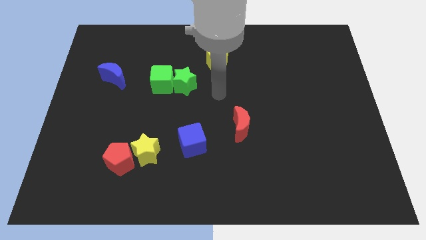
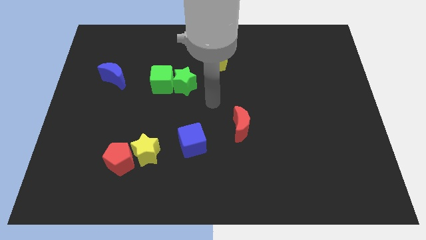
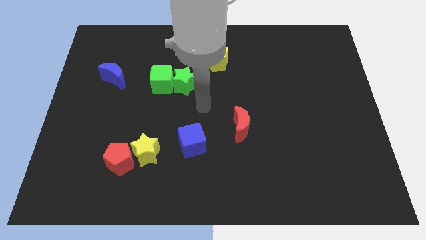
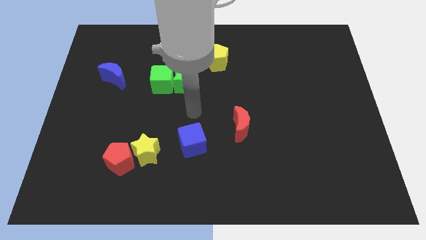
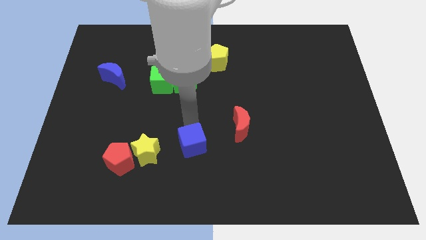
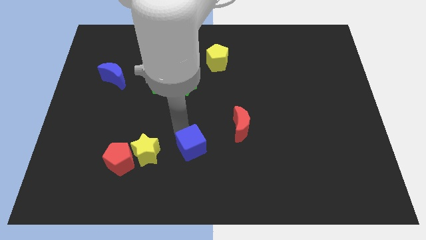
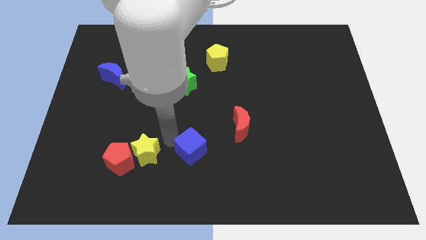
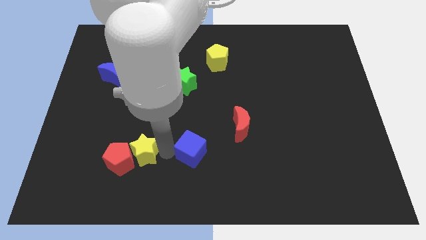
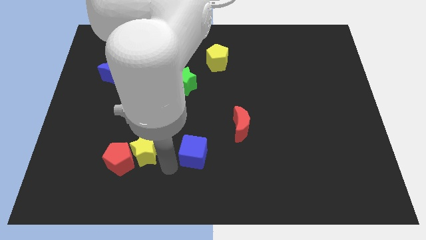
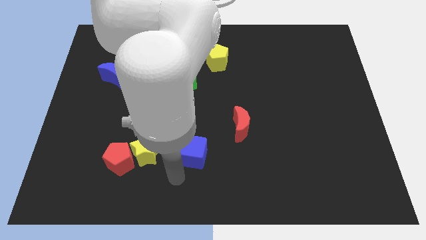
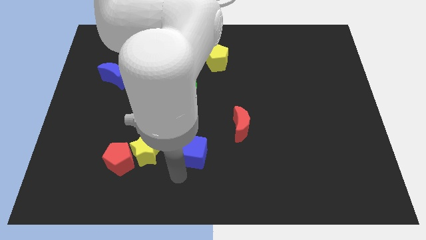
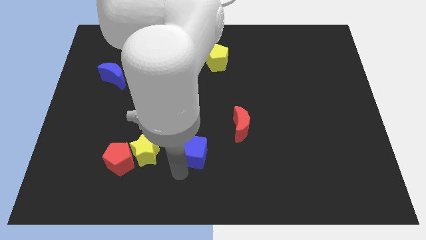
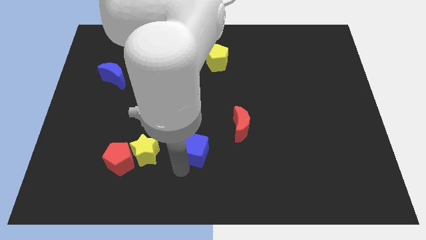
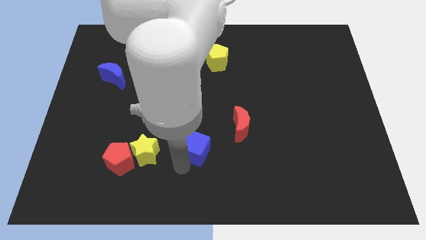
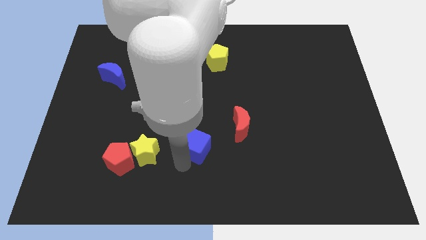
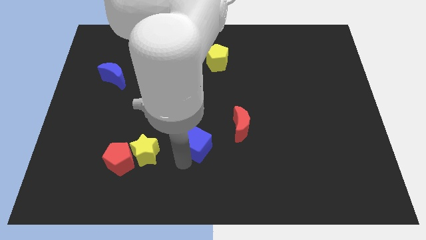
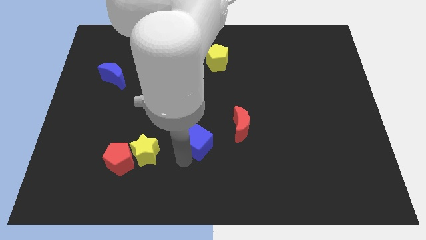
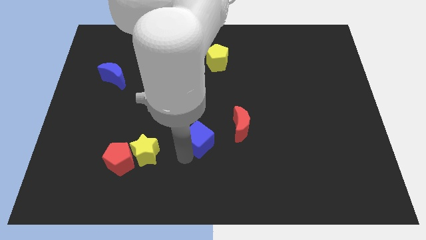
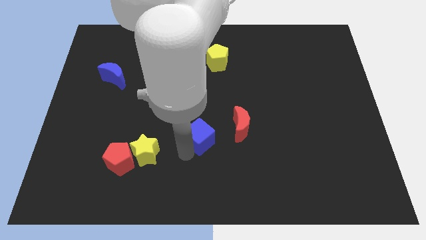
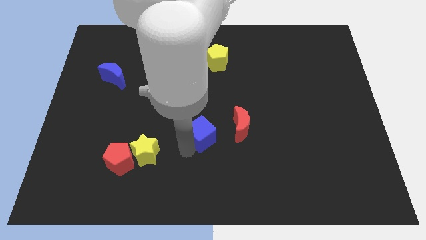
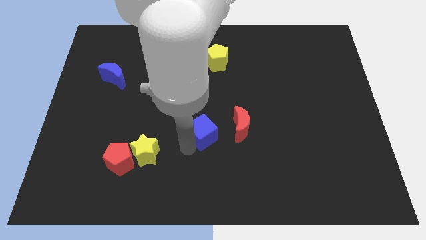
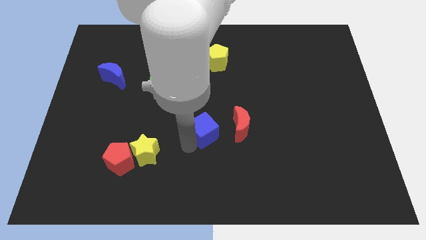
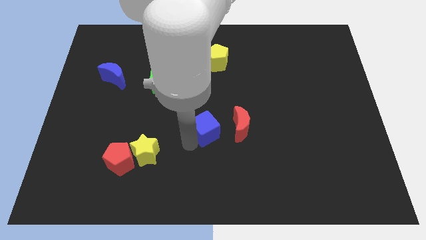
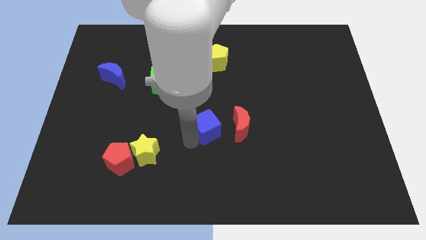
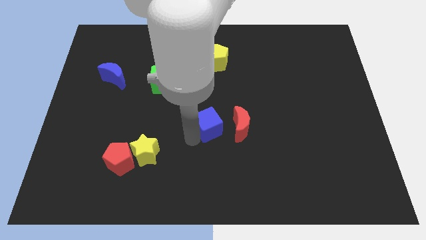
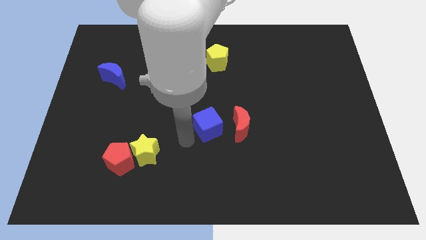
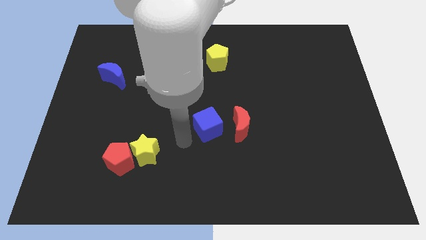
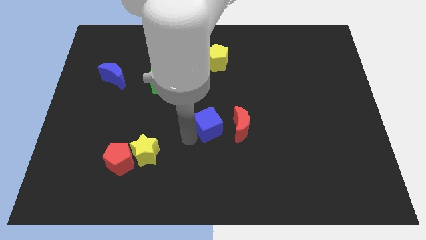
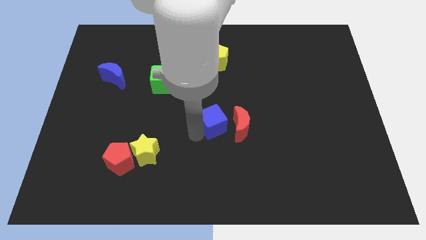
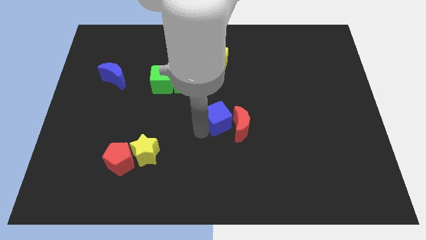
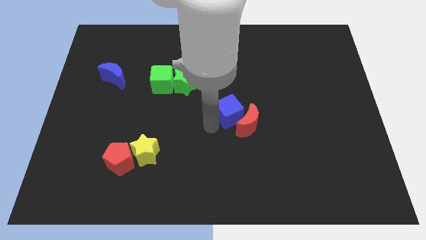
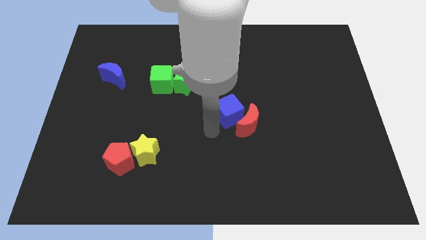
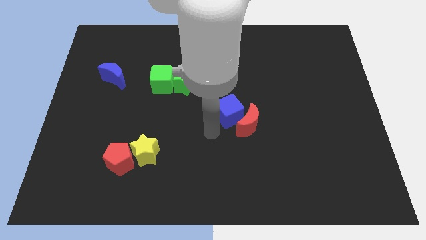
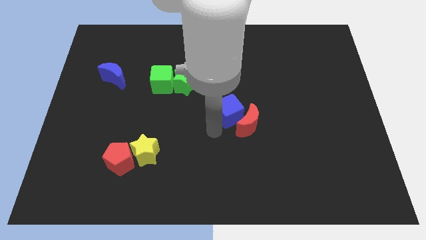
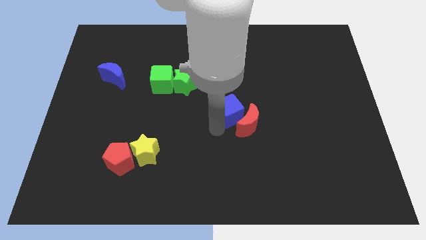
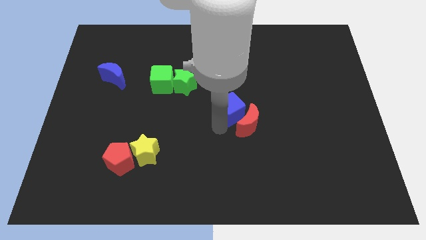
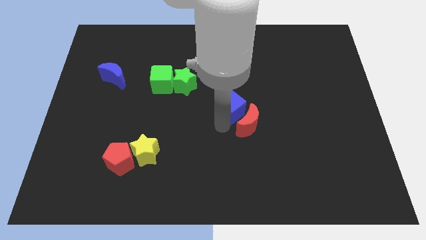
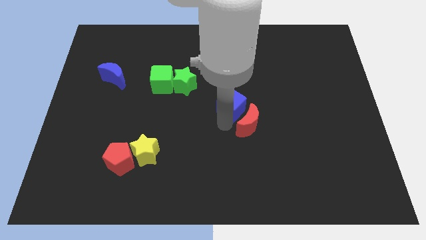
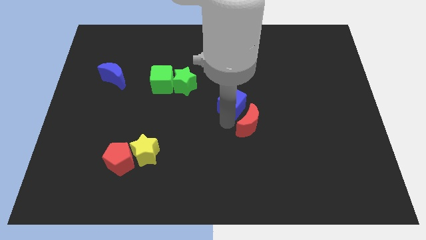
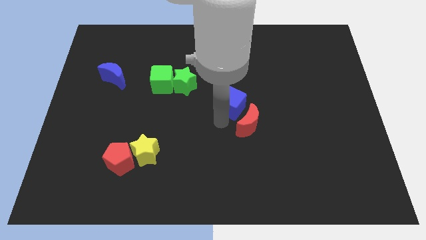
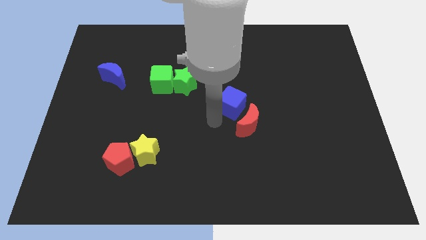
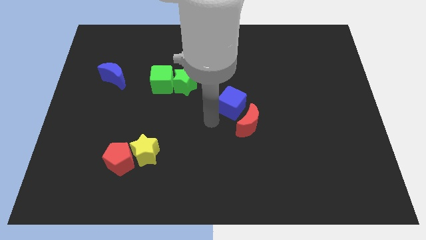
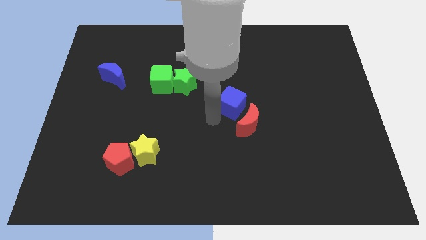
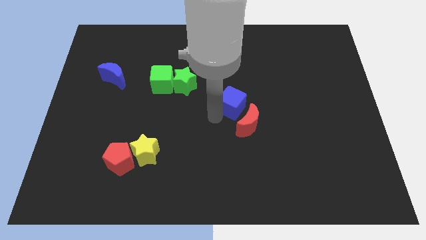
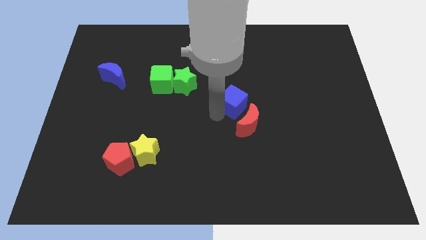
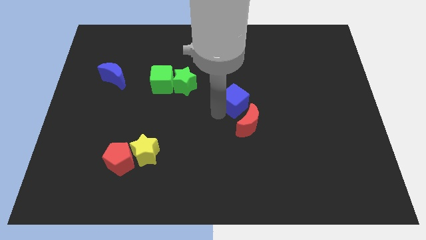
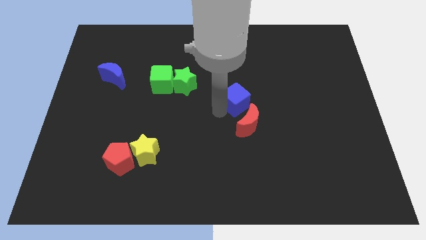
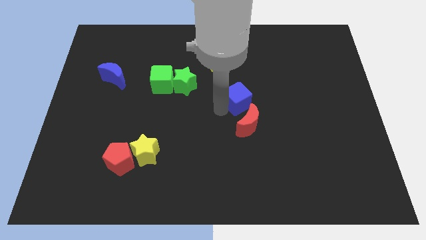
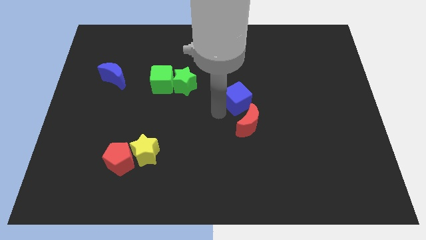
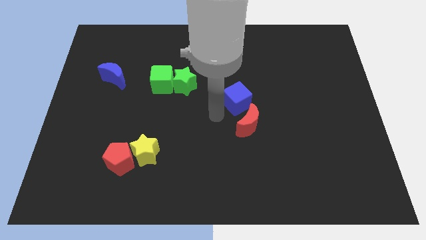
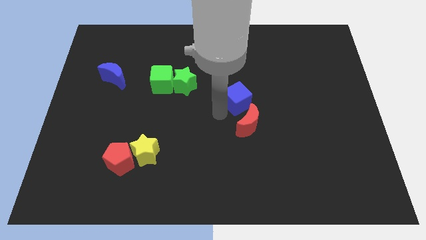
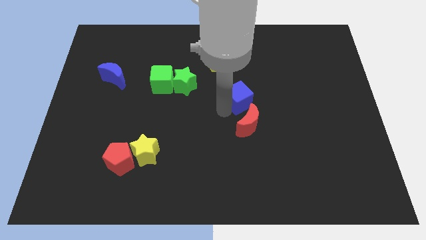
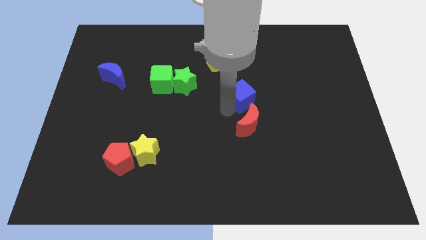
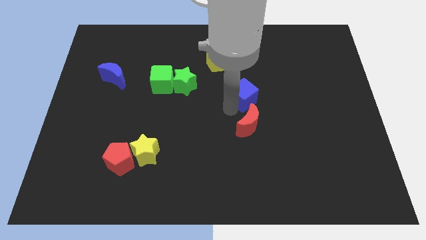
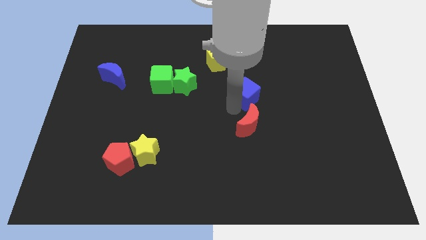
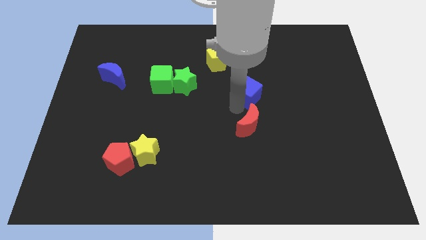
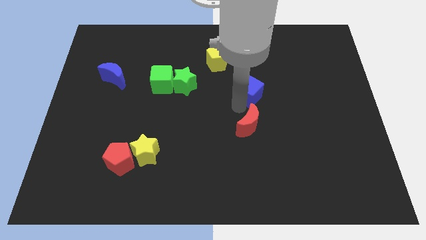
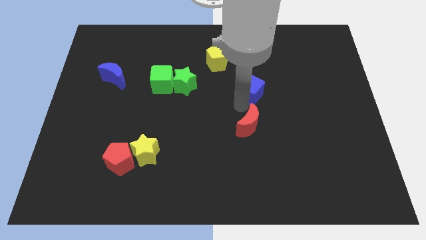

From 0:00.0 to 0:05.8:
move the blue cube up and then right

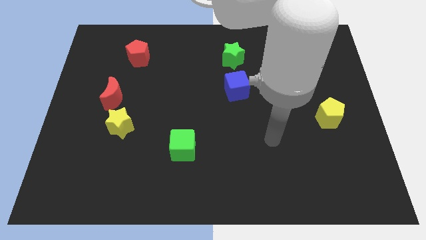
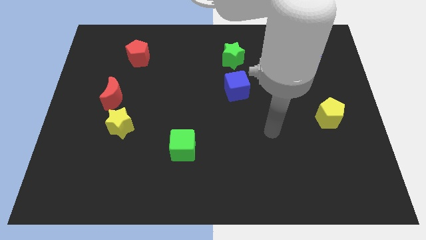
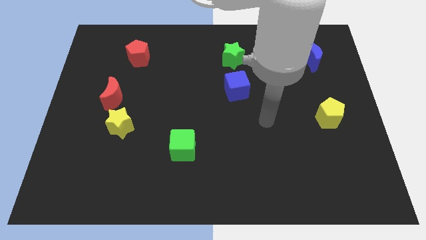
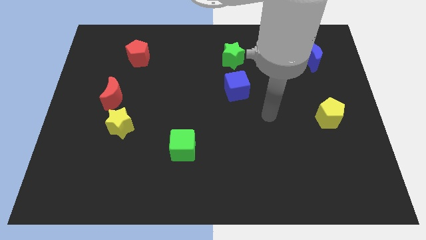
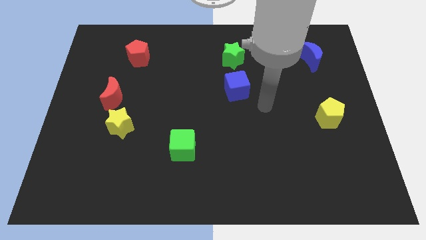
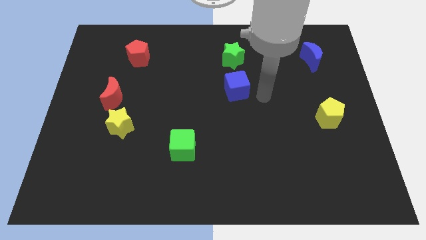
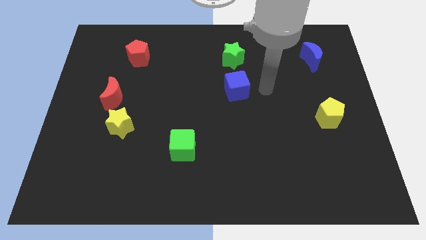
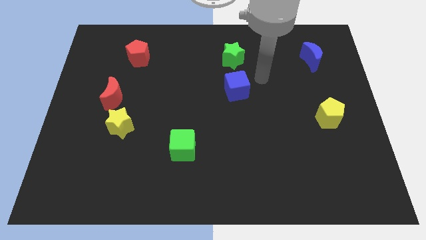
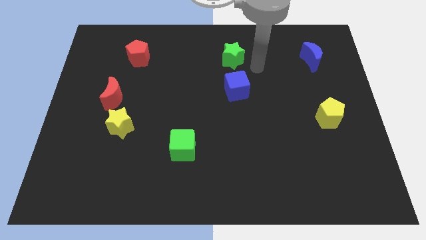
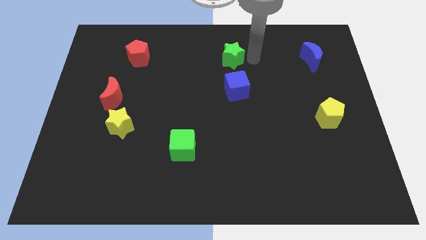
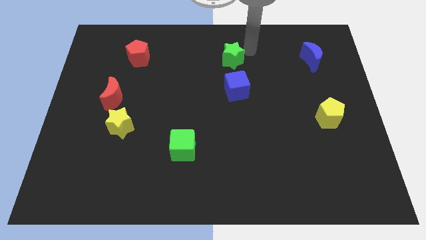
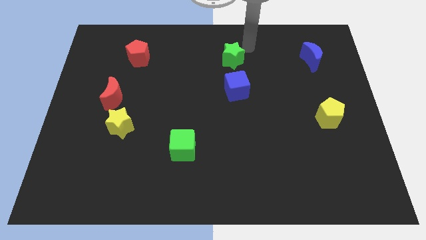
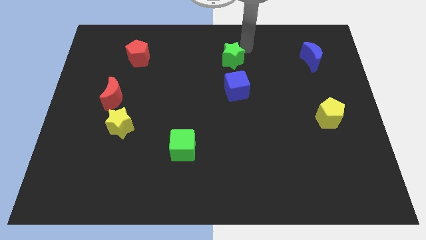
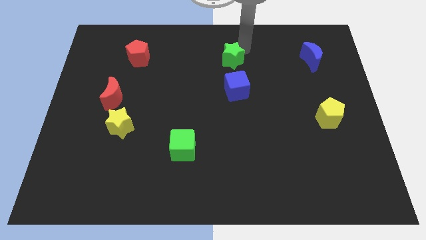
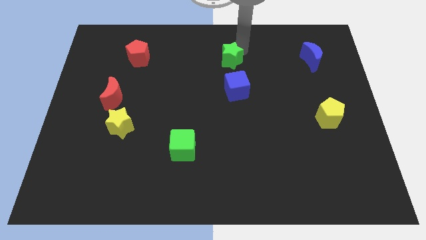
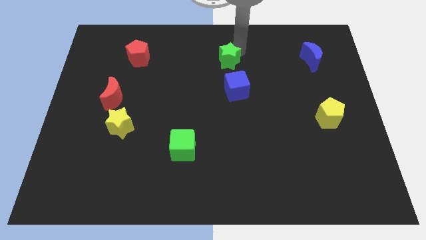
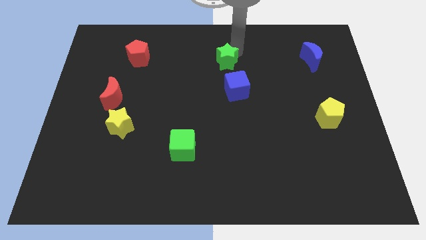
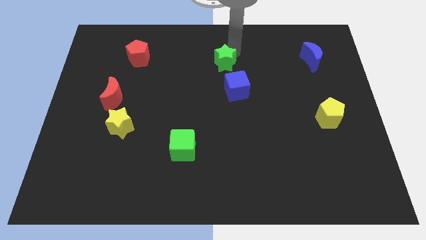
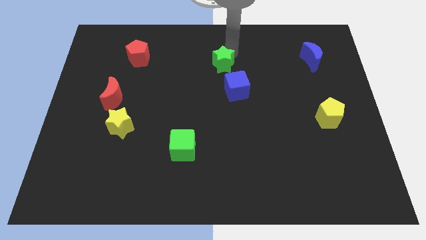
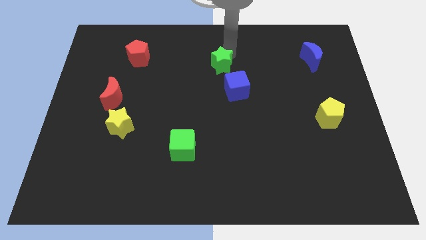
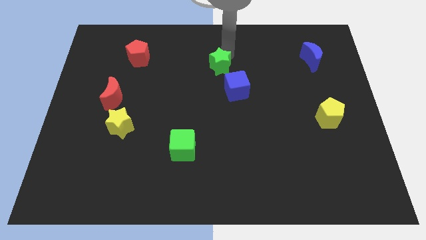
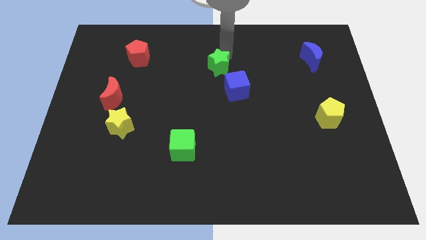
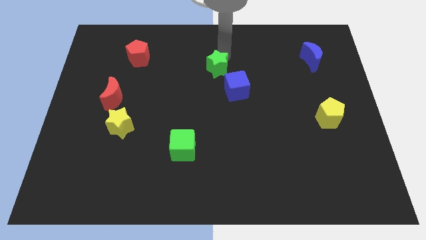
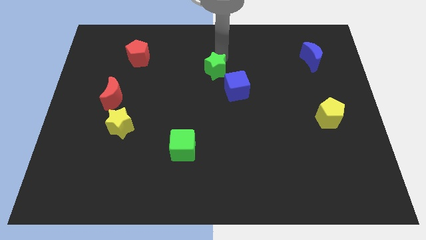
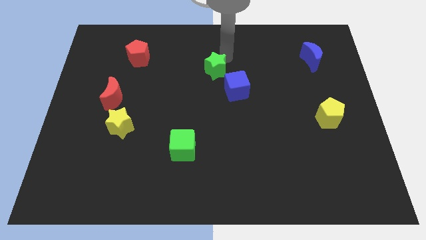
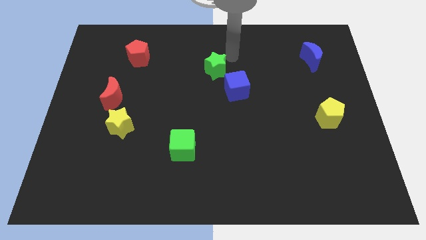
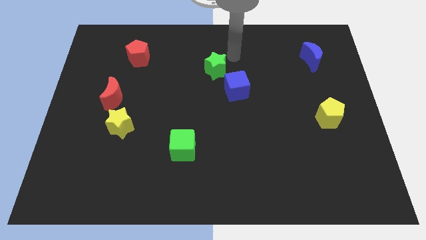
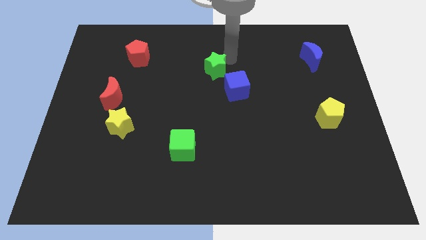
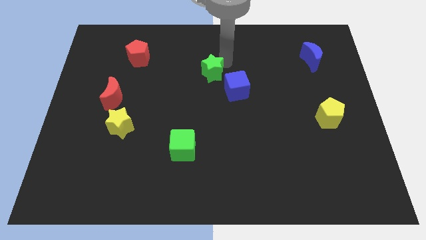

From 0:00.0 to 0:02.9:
slightly move the green star down and to the left diagonally
